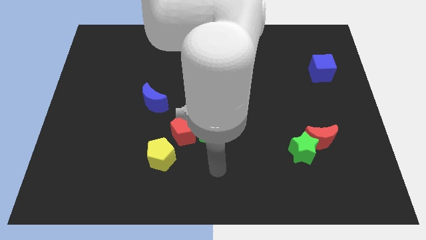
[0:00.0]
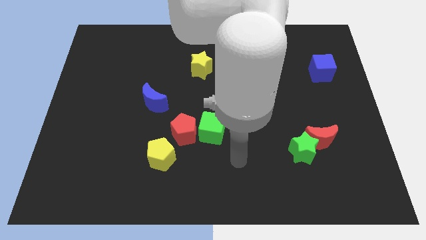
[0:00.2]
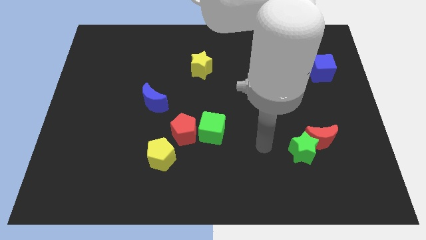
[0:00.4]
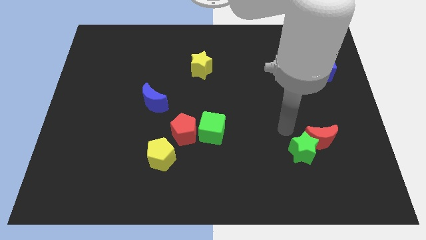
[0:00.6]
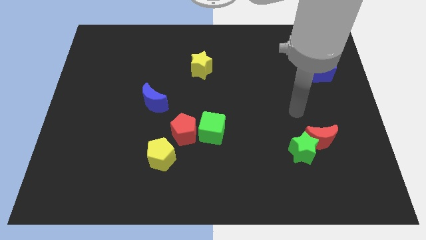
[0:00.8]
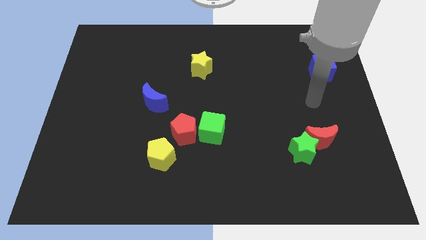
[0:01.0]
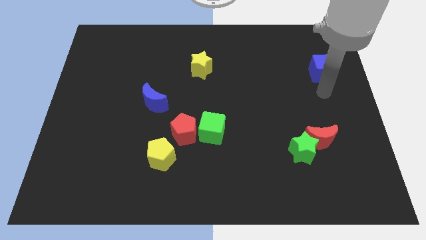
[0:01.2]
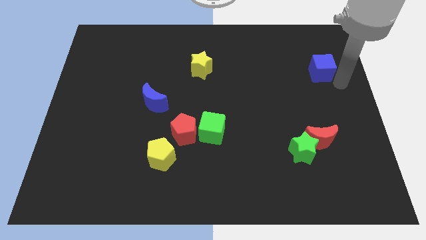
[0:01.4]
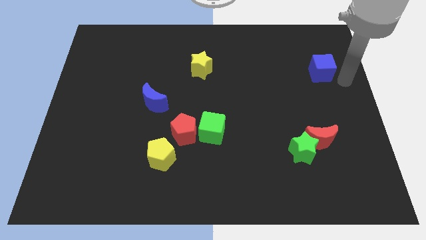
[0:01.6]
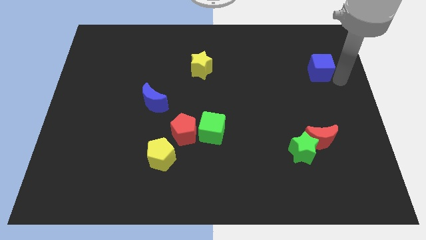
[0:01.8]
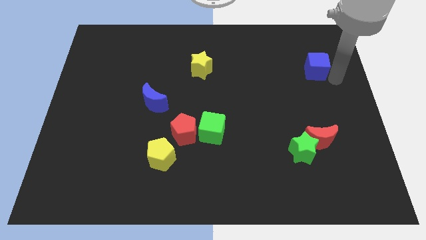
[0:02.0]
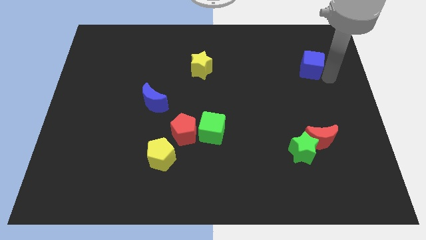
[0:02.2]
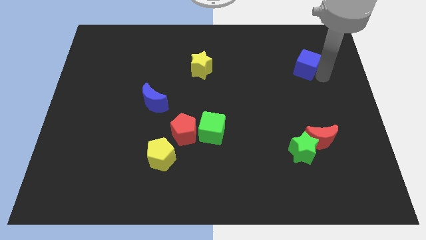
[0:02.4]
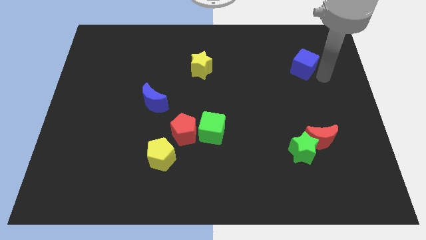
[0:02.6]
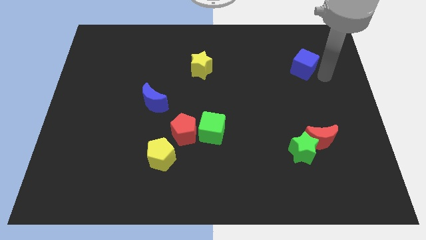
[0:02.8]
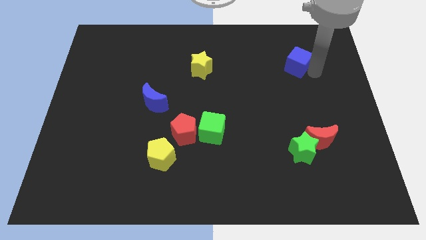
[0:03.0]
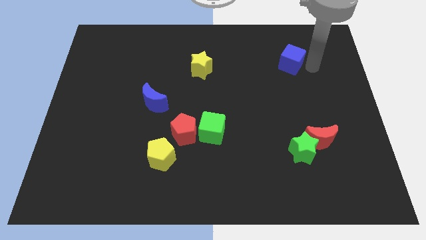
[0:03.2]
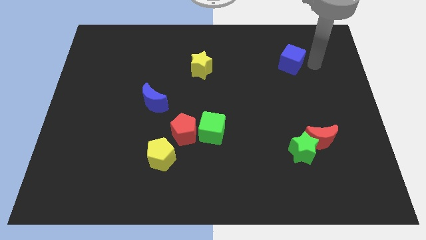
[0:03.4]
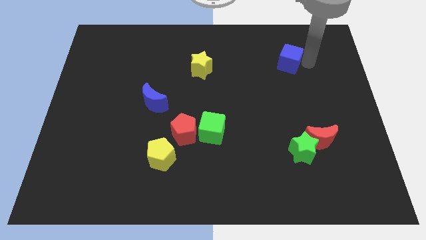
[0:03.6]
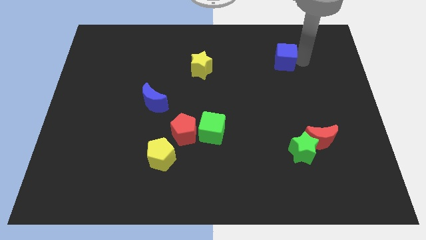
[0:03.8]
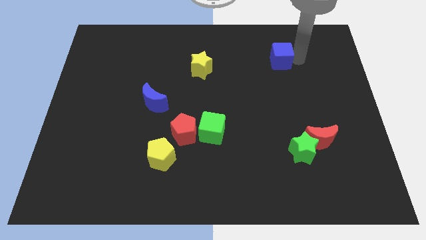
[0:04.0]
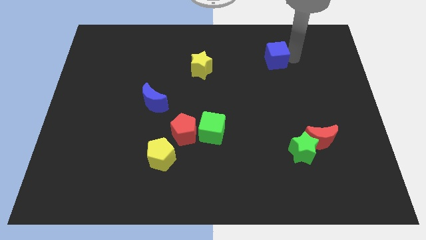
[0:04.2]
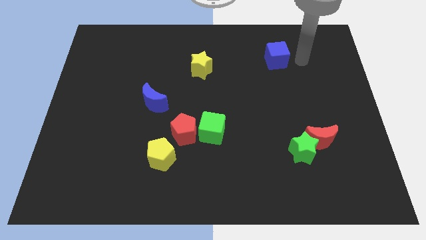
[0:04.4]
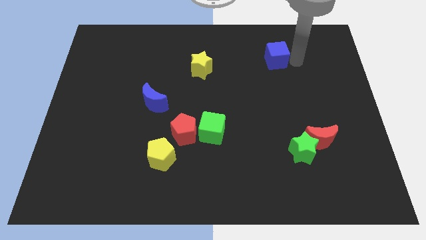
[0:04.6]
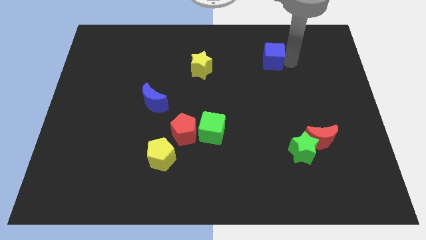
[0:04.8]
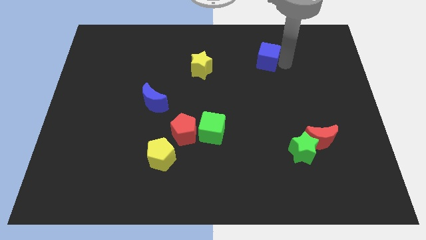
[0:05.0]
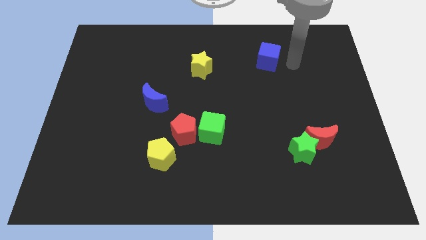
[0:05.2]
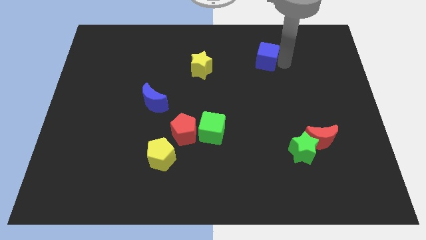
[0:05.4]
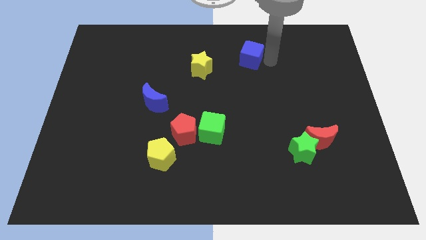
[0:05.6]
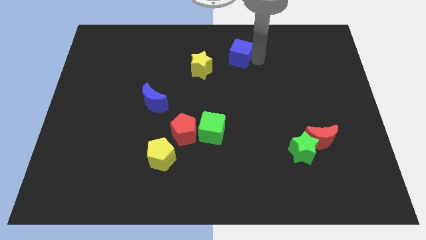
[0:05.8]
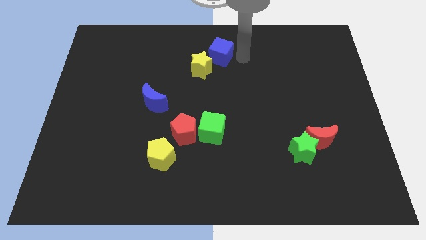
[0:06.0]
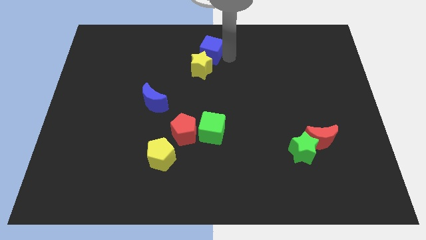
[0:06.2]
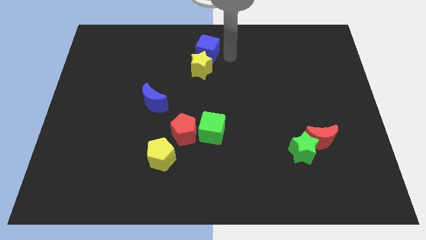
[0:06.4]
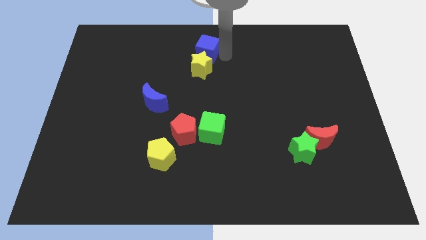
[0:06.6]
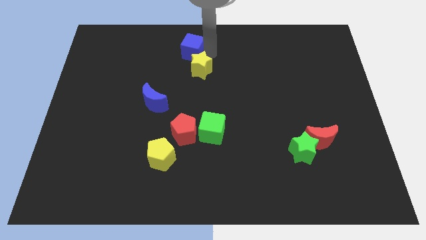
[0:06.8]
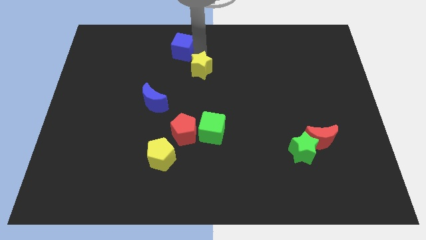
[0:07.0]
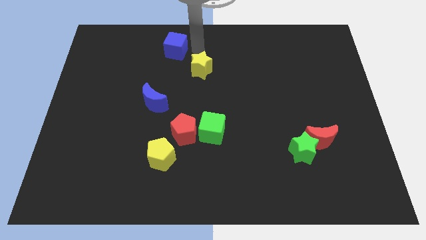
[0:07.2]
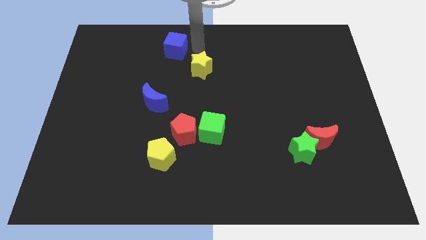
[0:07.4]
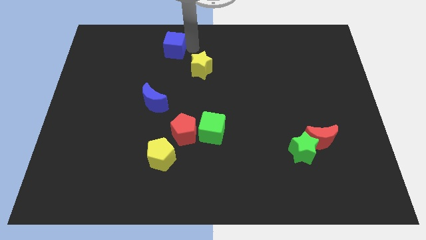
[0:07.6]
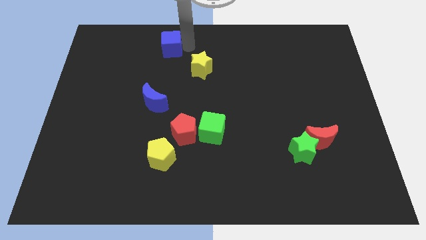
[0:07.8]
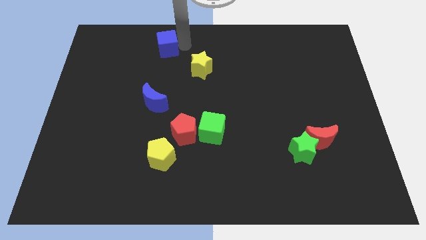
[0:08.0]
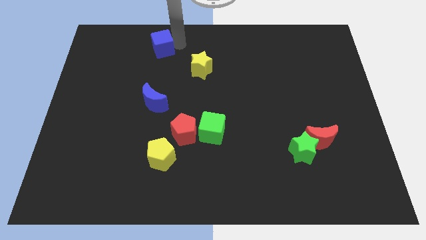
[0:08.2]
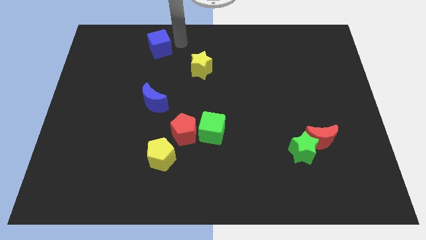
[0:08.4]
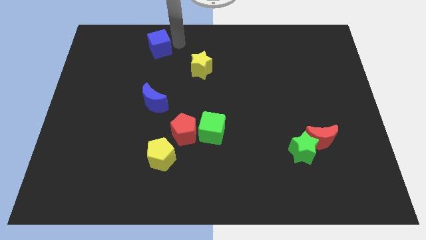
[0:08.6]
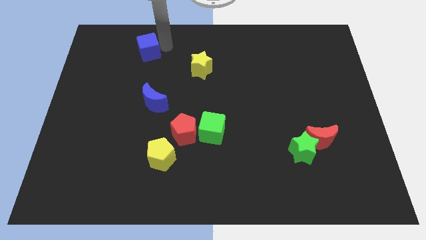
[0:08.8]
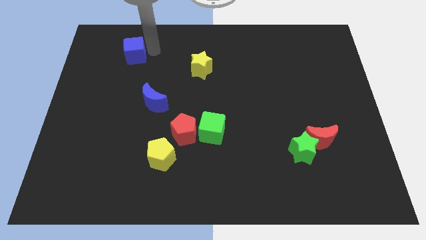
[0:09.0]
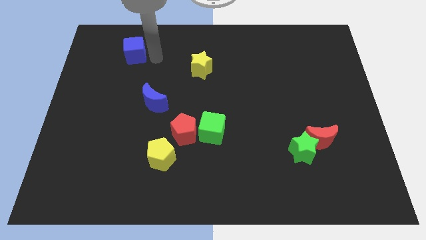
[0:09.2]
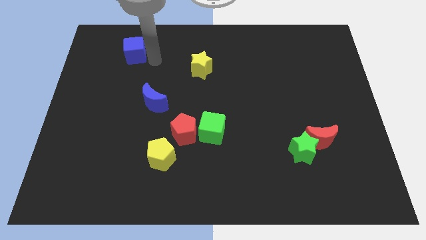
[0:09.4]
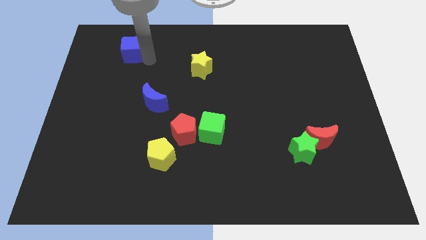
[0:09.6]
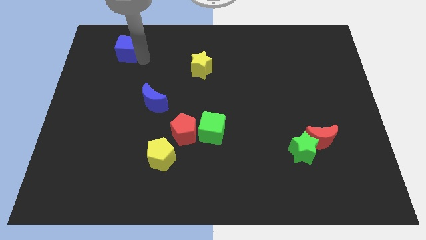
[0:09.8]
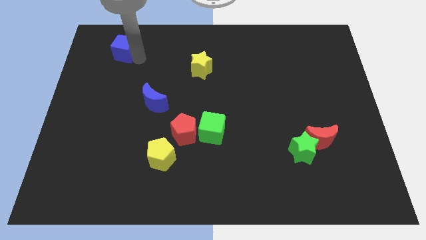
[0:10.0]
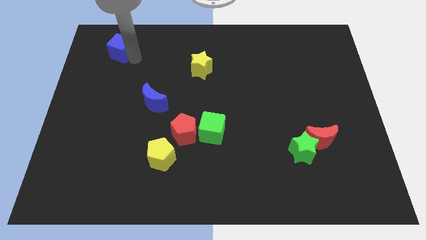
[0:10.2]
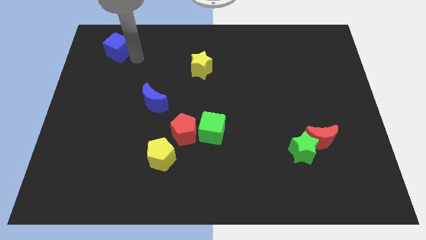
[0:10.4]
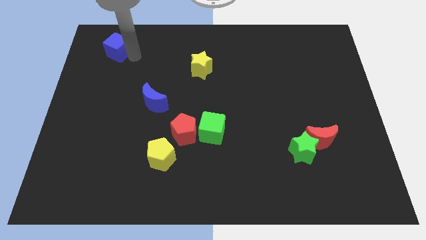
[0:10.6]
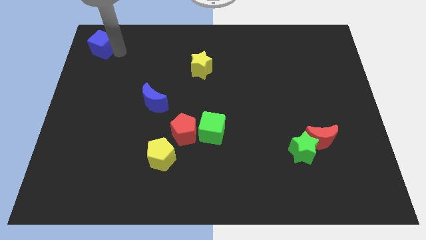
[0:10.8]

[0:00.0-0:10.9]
slide the blue cube to the top left corner

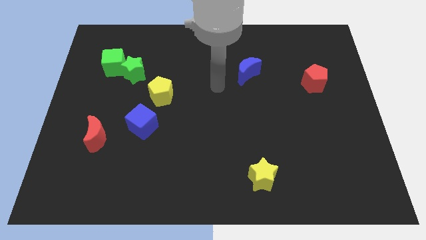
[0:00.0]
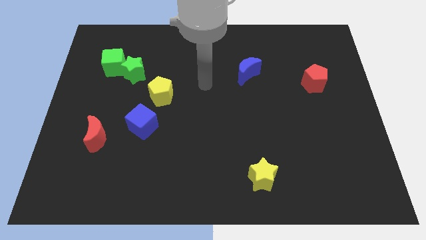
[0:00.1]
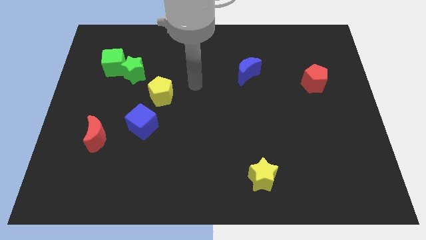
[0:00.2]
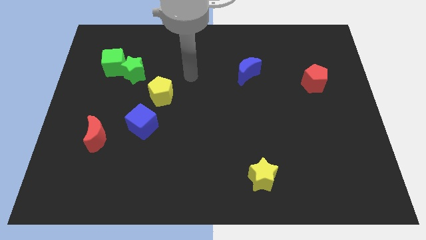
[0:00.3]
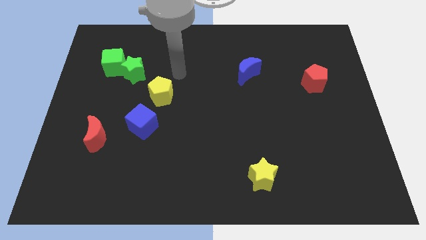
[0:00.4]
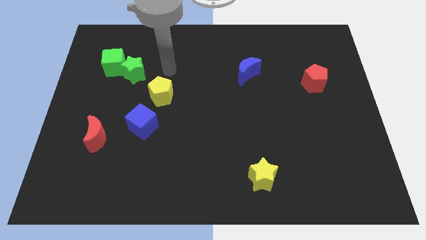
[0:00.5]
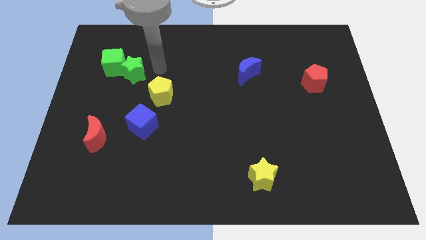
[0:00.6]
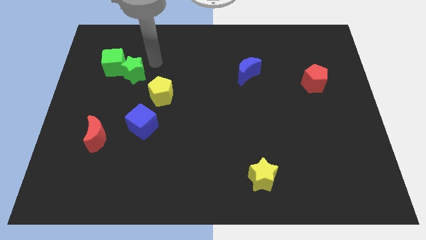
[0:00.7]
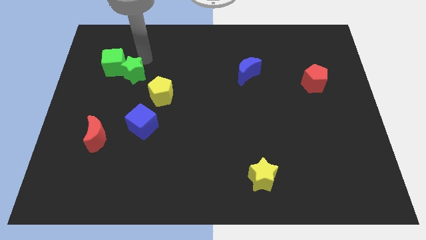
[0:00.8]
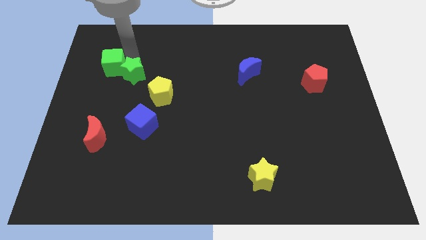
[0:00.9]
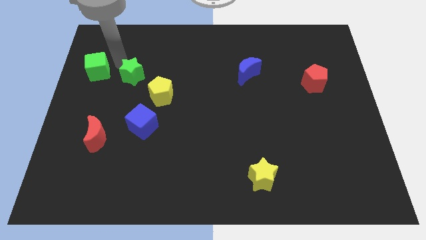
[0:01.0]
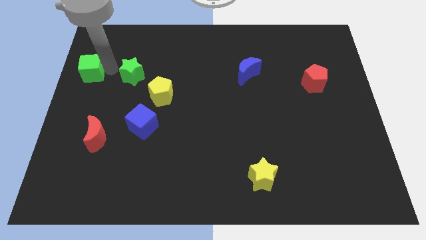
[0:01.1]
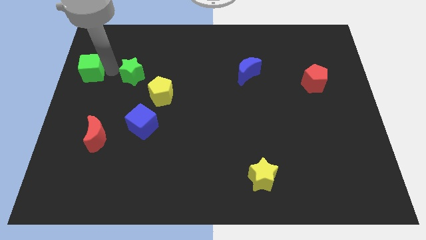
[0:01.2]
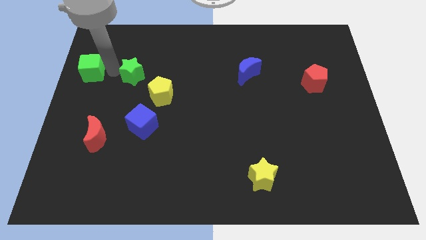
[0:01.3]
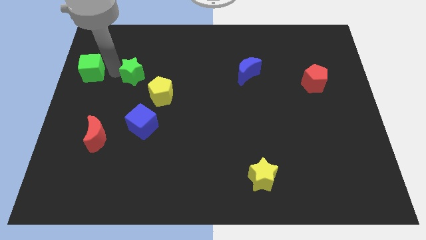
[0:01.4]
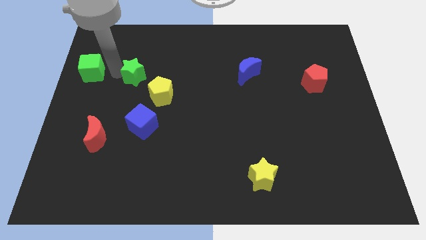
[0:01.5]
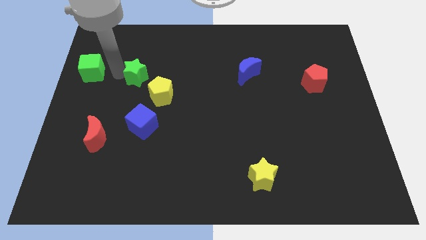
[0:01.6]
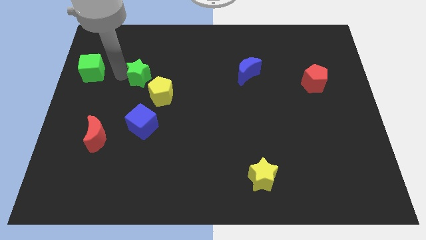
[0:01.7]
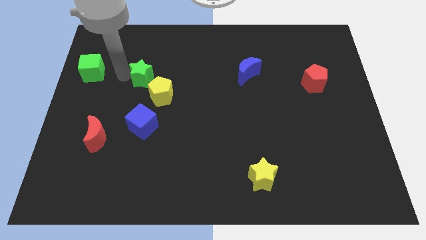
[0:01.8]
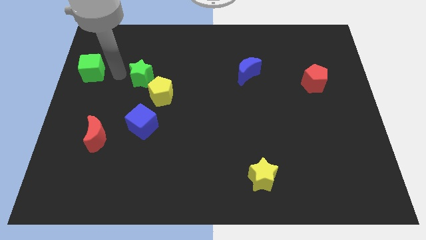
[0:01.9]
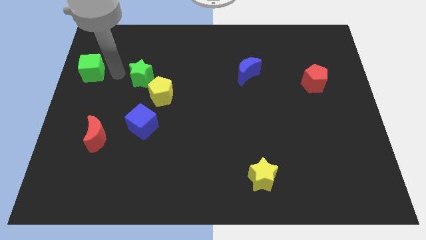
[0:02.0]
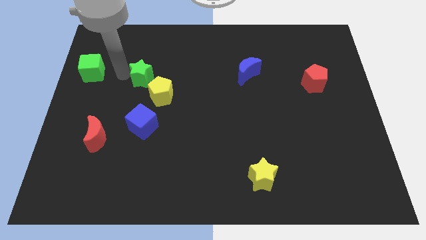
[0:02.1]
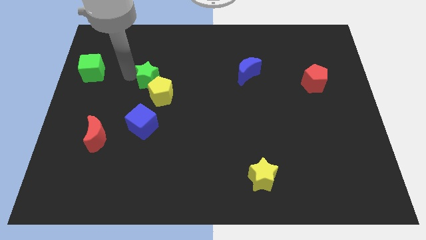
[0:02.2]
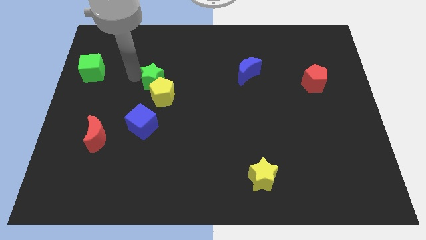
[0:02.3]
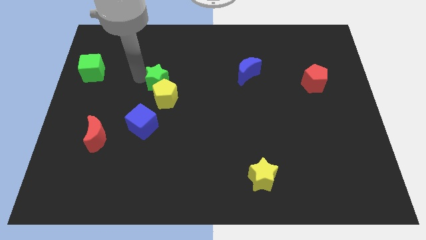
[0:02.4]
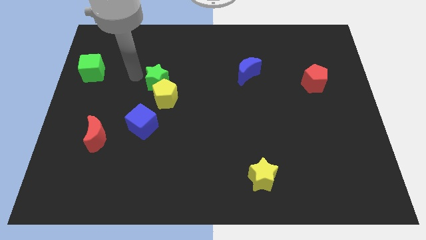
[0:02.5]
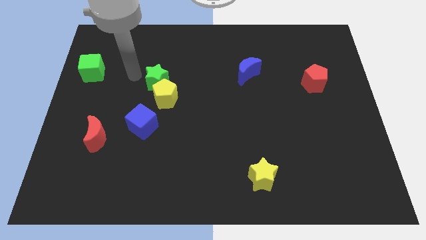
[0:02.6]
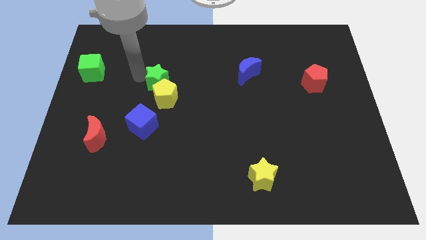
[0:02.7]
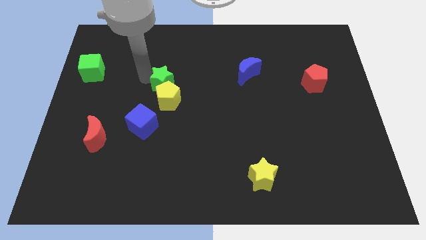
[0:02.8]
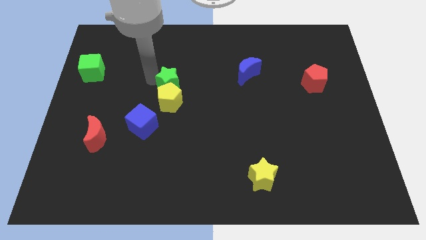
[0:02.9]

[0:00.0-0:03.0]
slide the green star to the center
